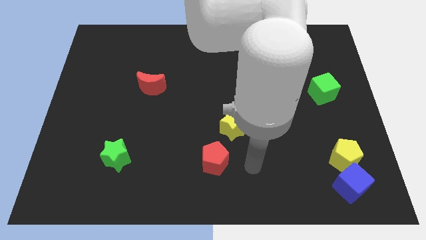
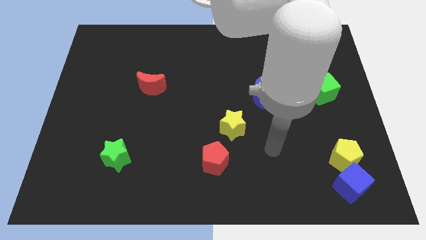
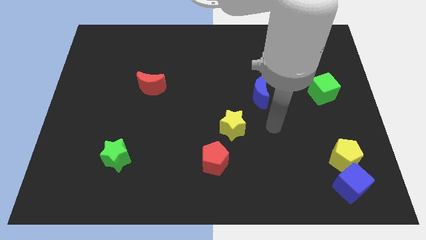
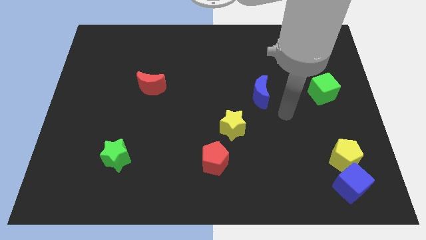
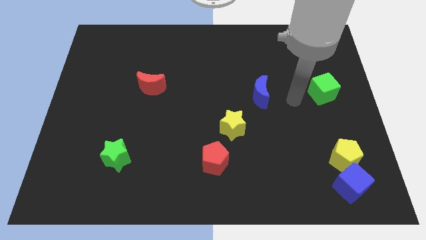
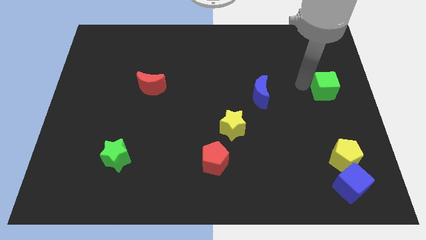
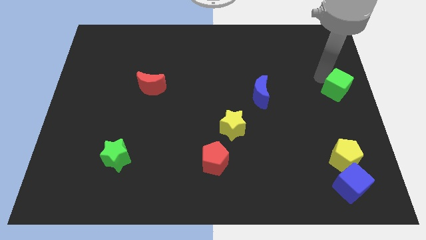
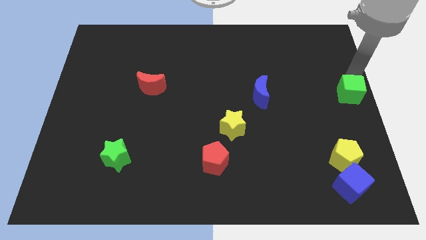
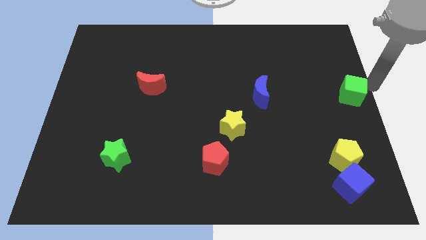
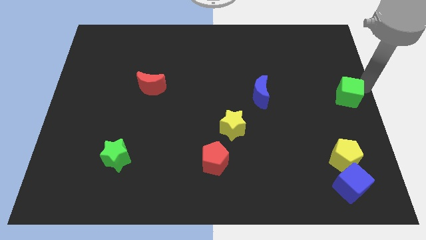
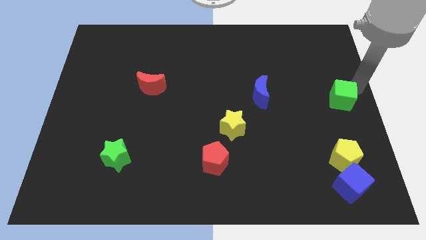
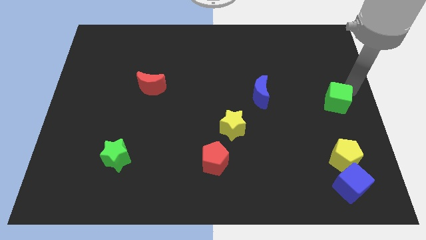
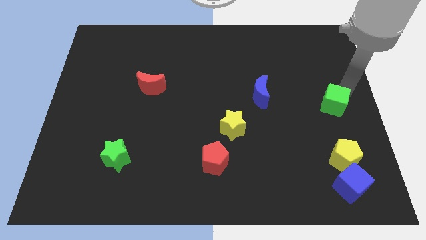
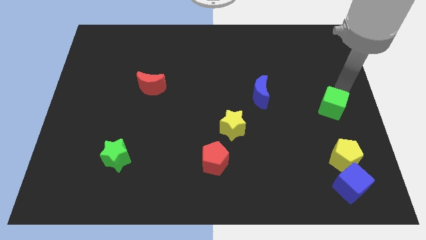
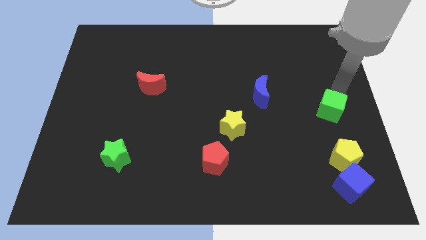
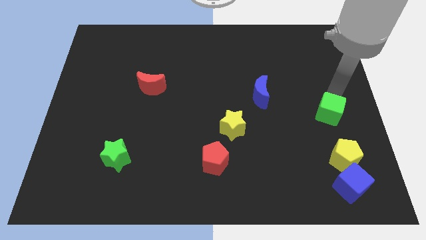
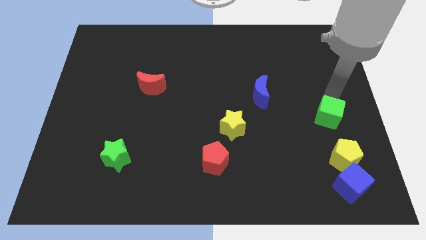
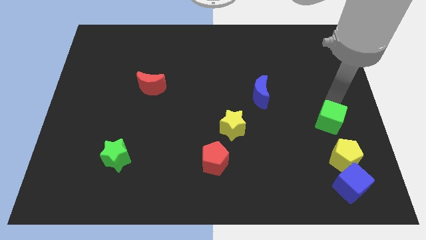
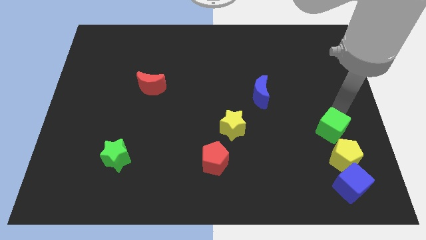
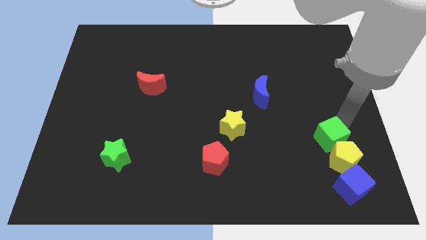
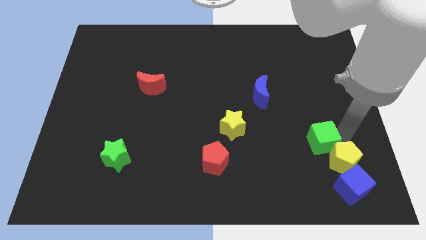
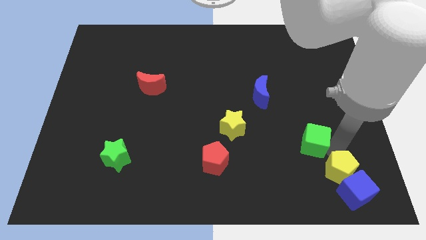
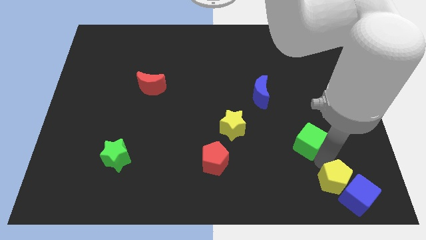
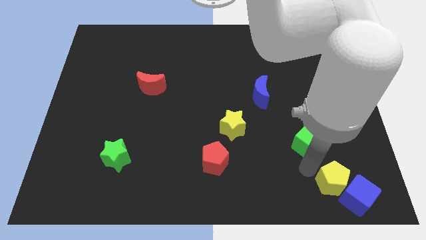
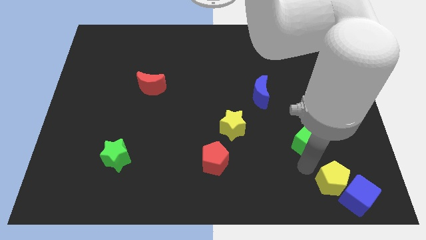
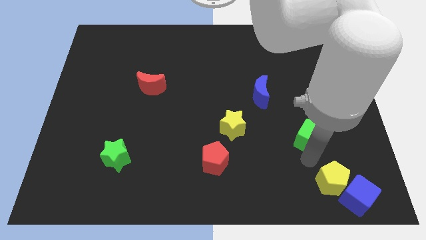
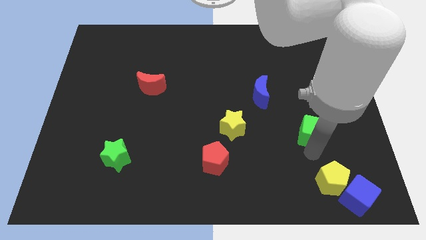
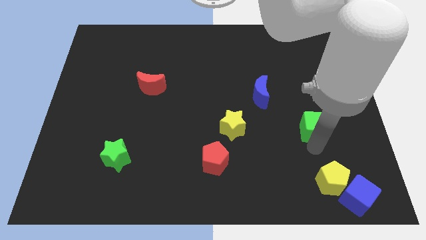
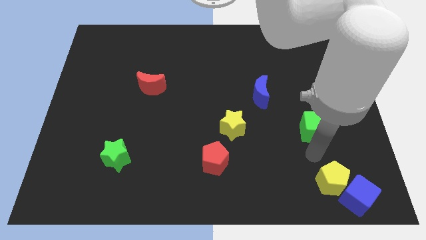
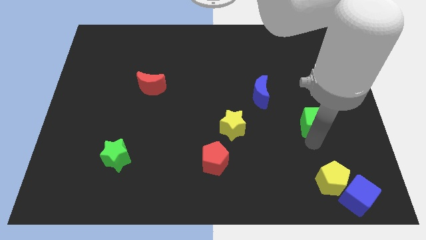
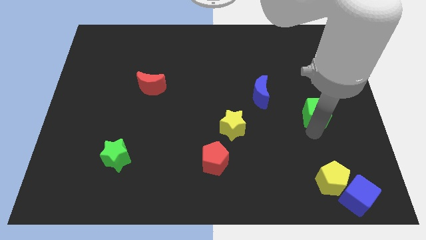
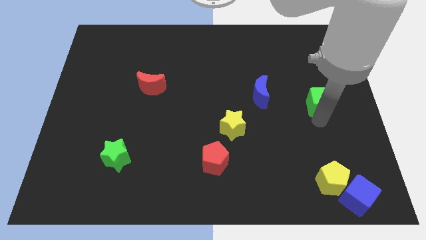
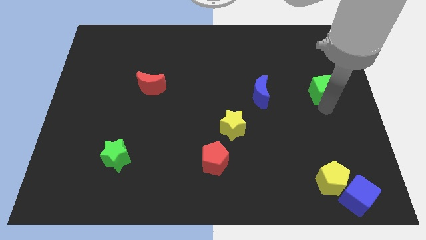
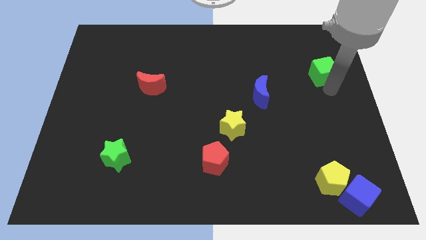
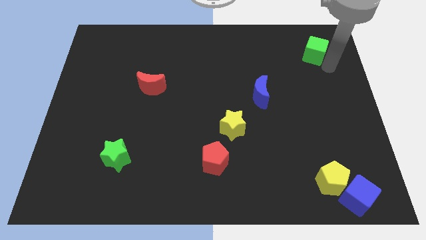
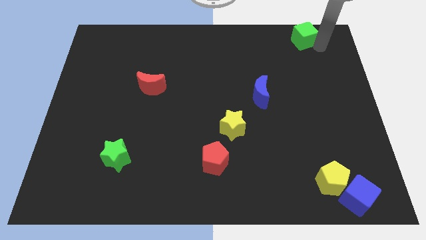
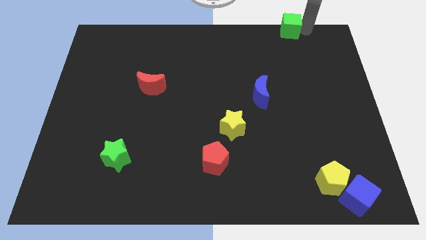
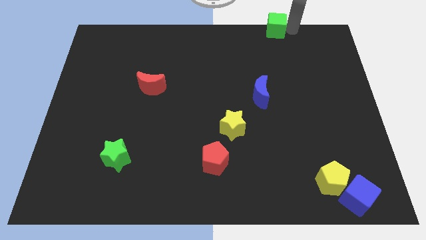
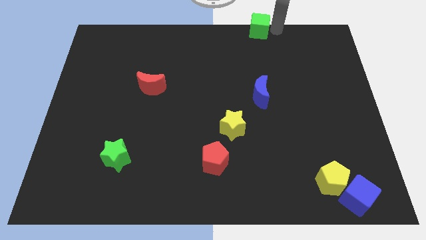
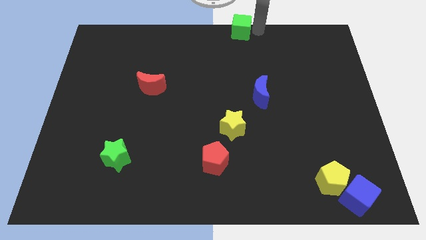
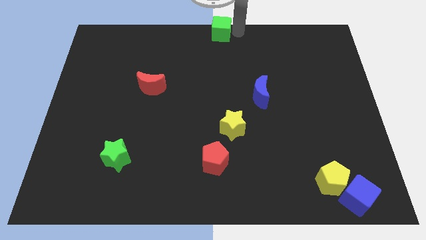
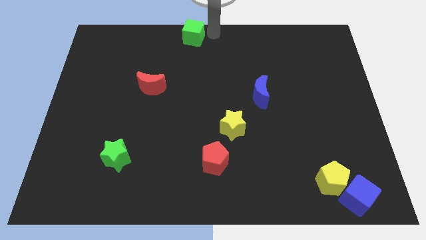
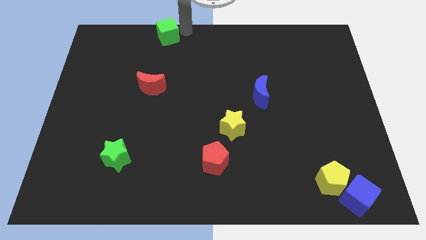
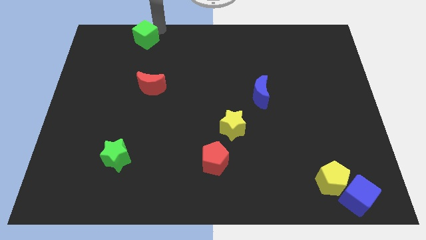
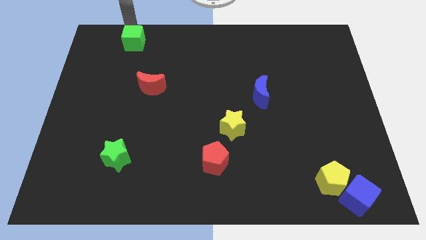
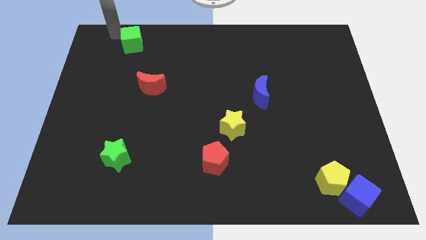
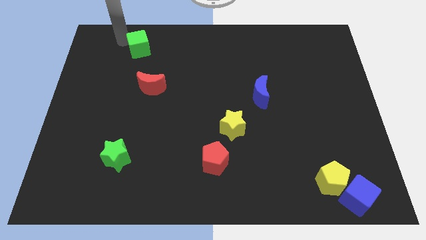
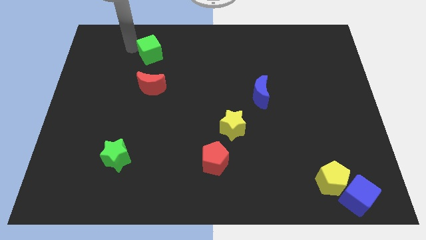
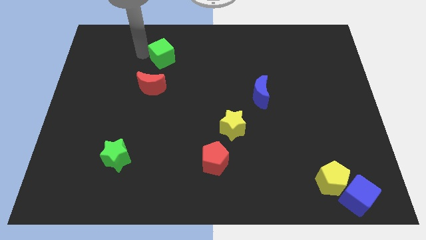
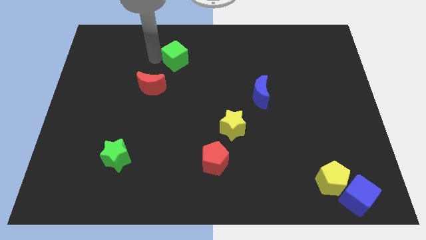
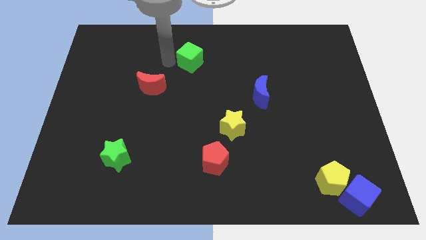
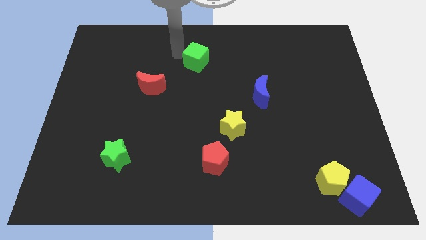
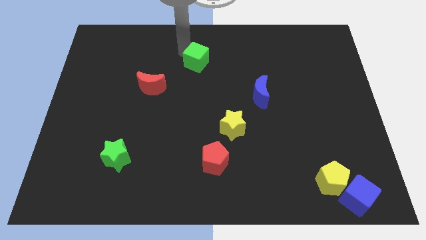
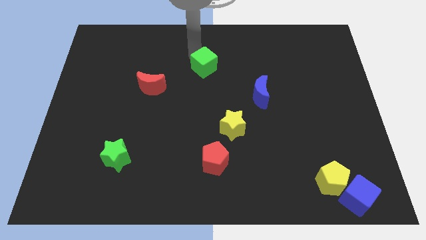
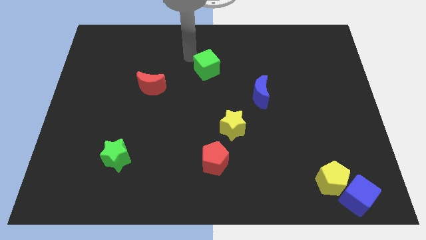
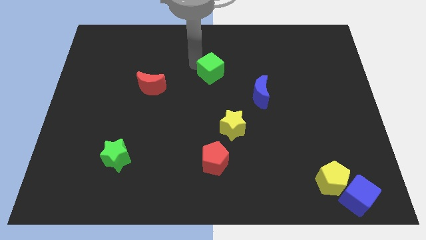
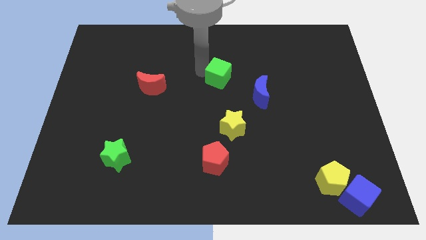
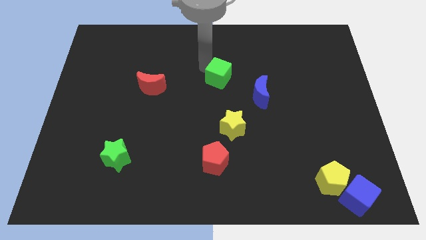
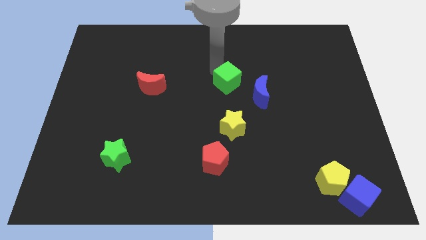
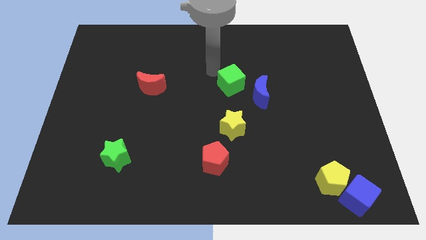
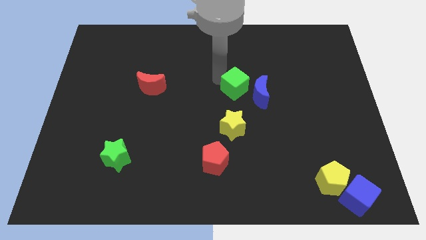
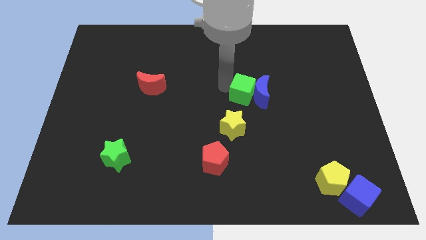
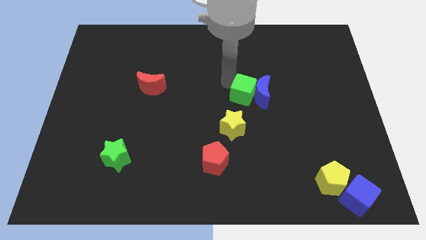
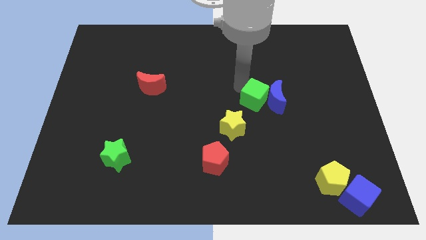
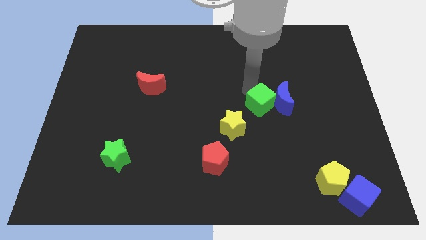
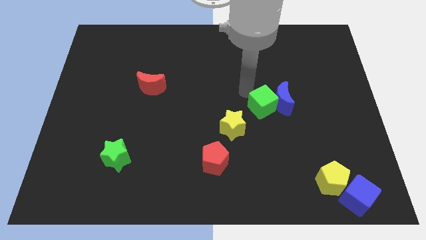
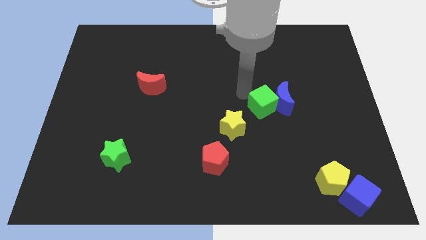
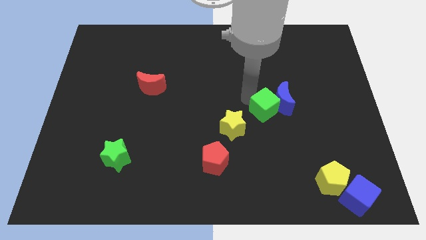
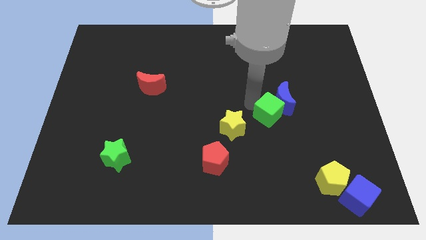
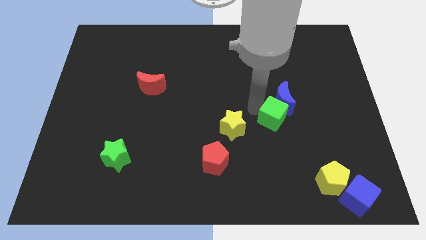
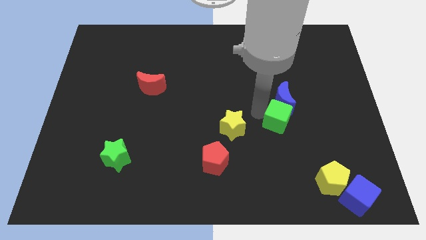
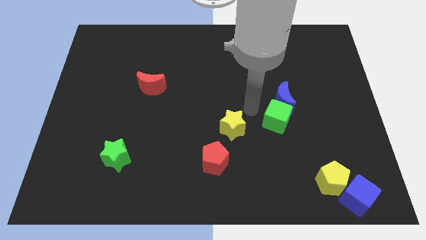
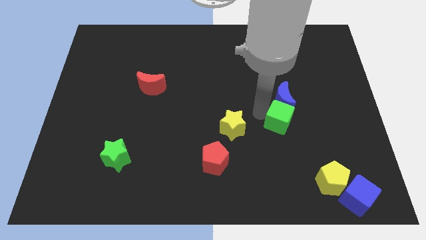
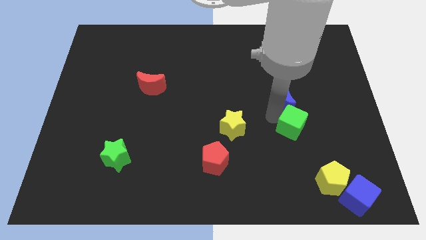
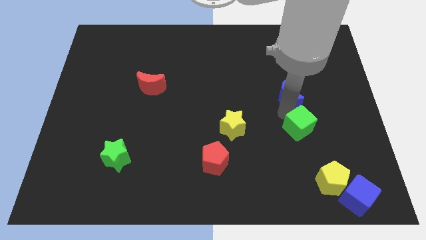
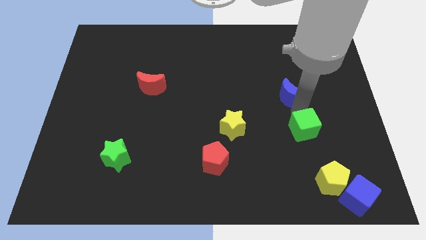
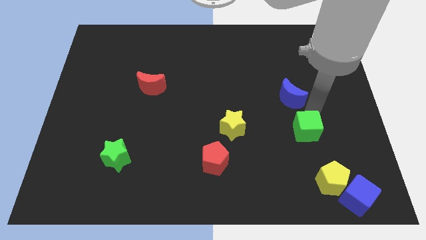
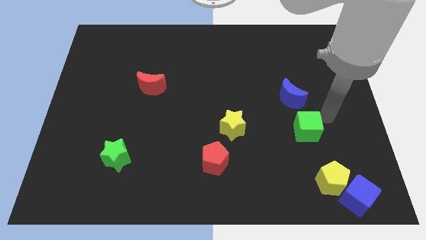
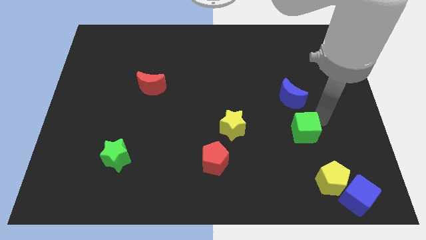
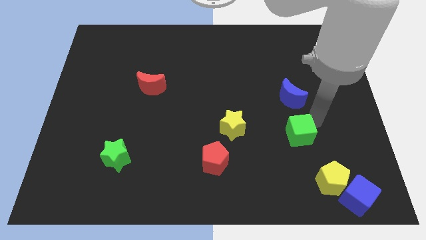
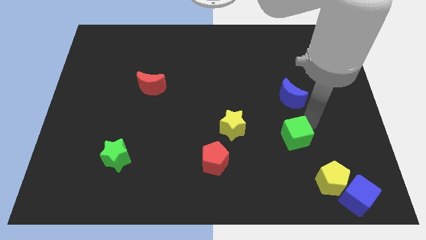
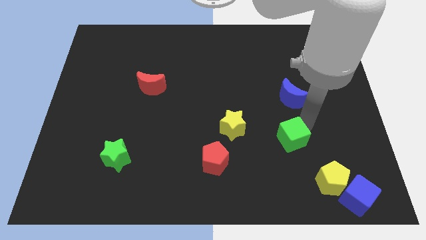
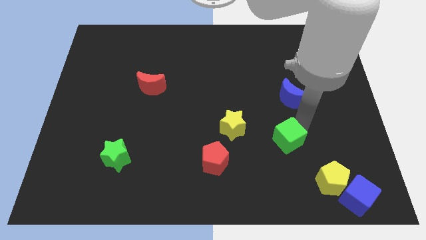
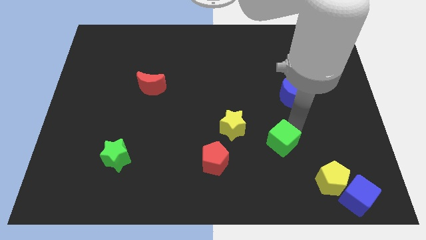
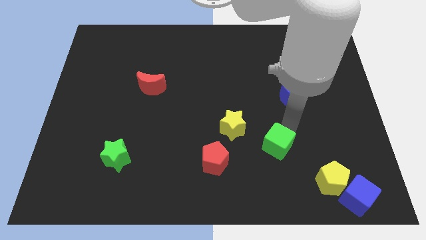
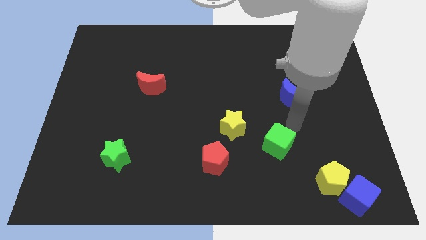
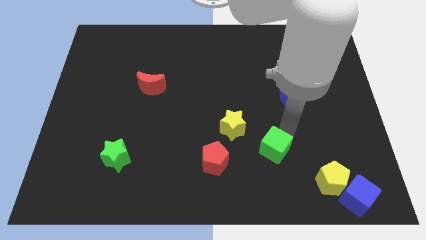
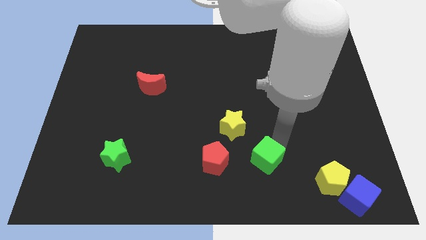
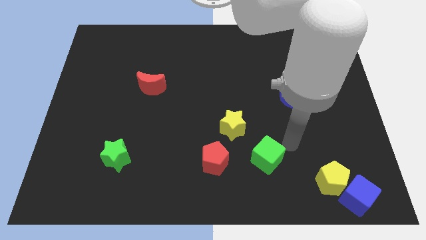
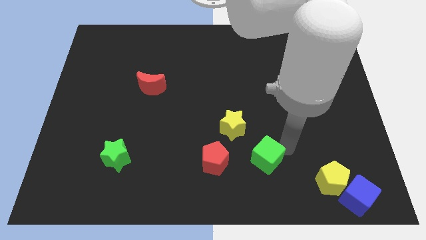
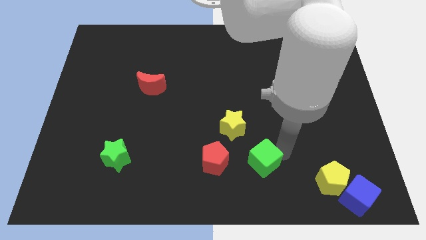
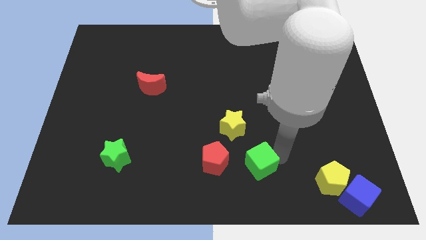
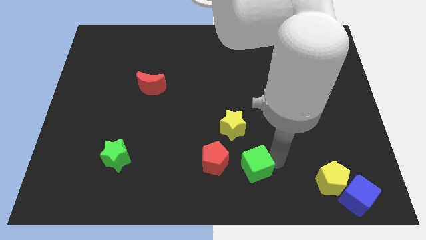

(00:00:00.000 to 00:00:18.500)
put the green cube to the bottom side
